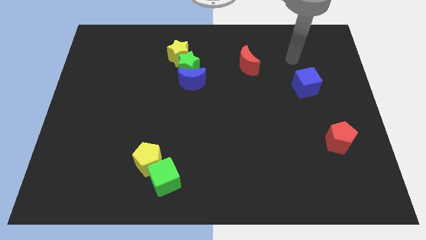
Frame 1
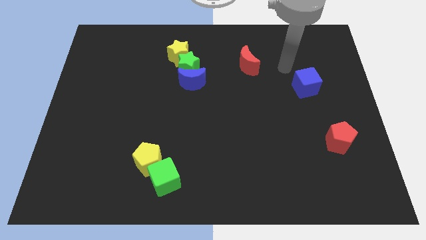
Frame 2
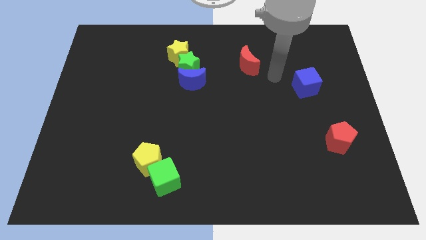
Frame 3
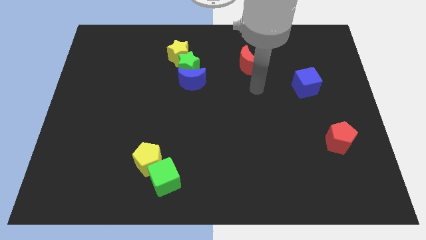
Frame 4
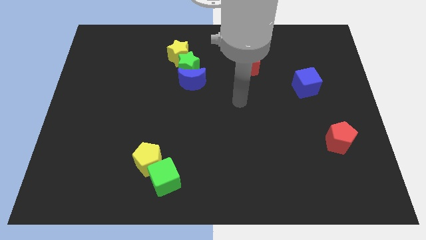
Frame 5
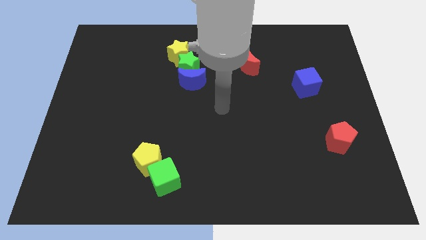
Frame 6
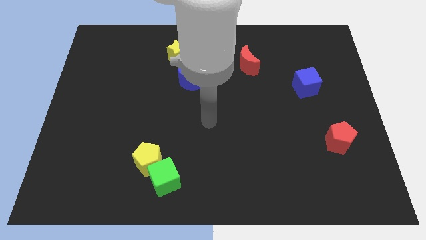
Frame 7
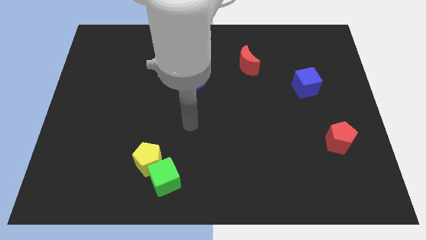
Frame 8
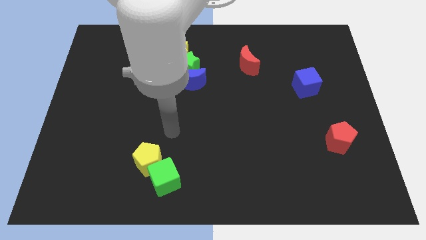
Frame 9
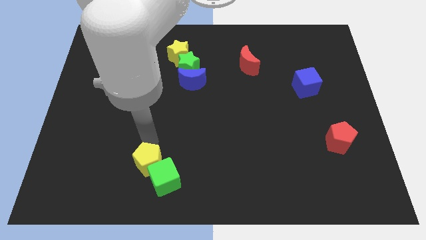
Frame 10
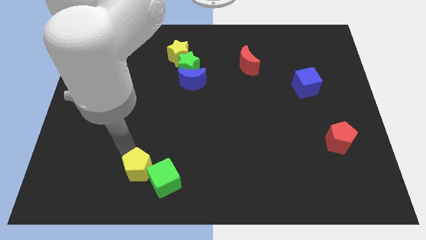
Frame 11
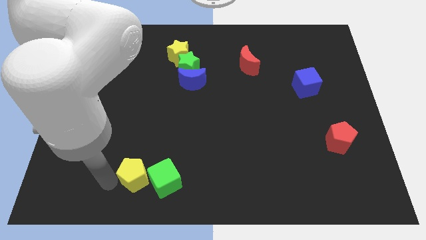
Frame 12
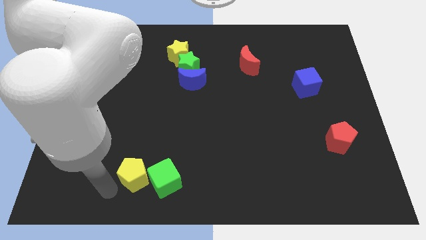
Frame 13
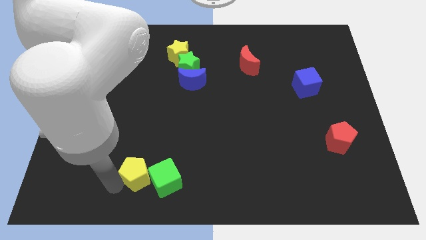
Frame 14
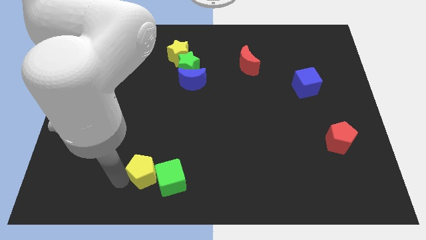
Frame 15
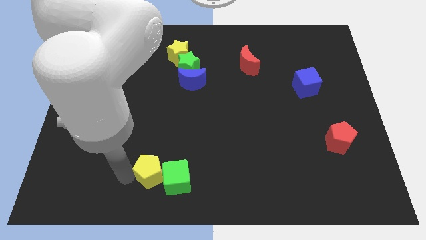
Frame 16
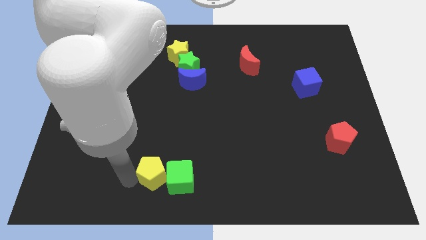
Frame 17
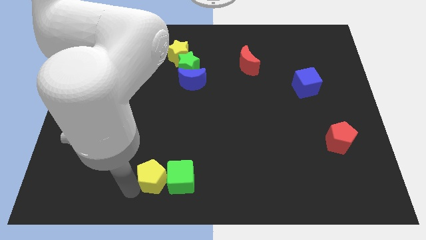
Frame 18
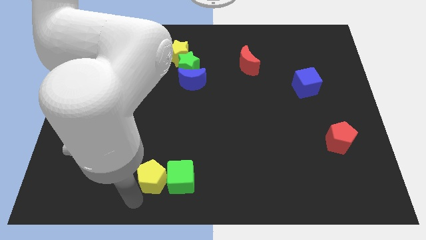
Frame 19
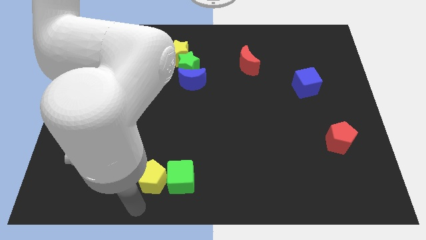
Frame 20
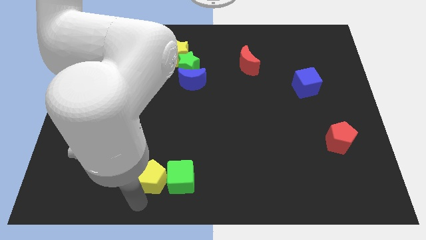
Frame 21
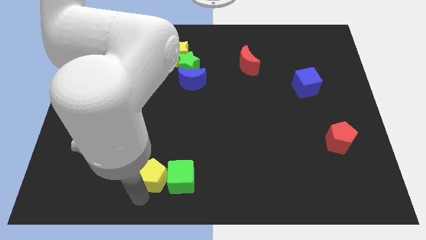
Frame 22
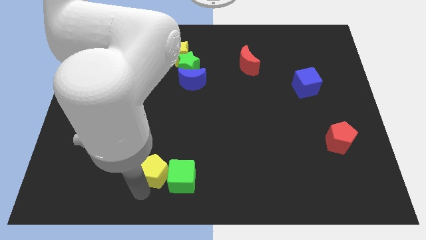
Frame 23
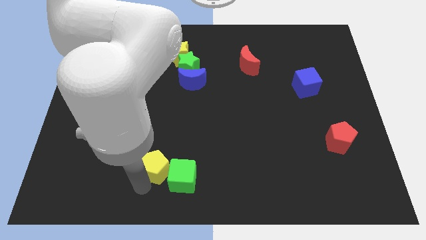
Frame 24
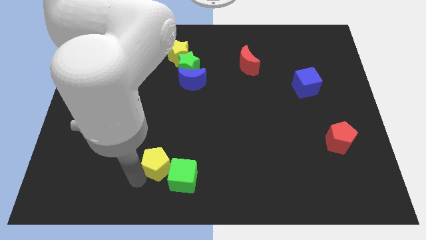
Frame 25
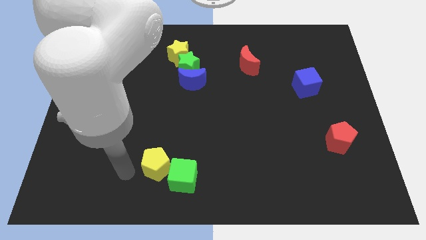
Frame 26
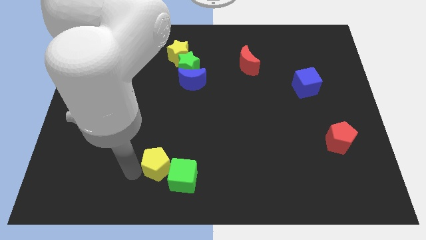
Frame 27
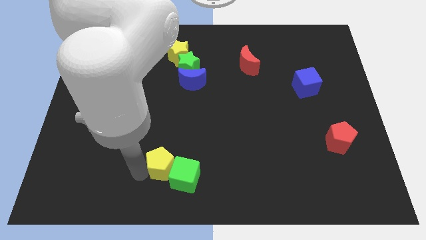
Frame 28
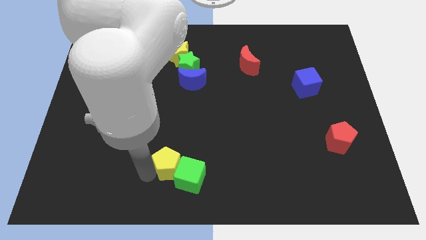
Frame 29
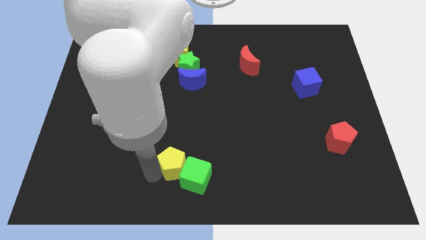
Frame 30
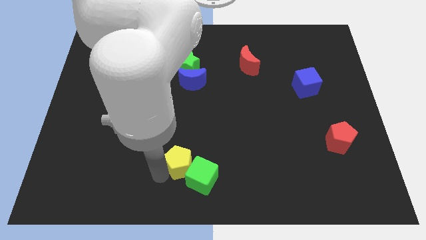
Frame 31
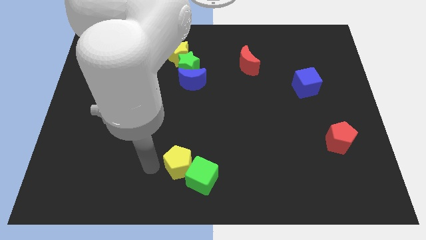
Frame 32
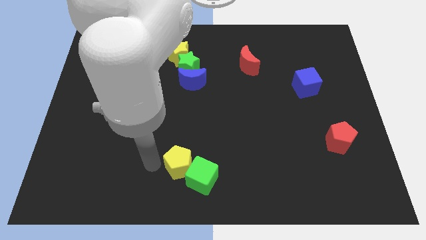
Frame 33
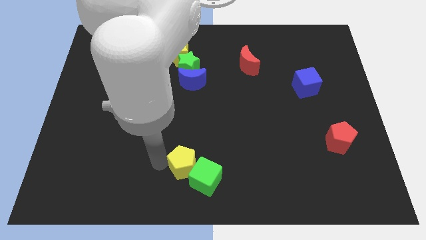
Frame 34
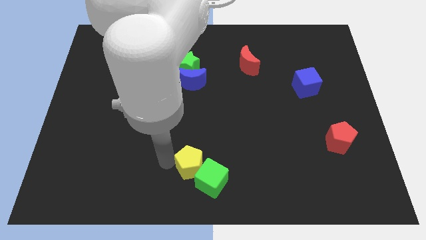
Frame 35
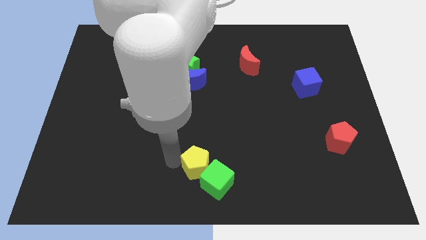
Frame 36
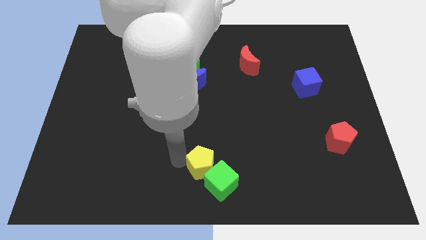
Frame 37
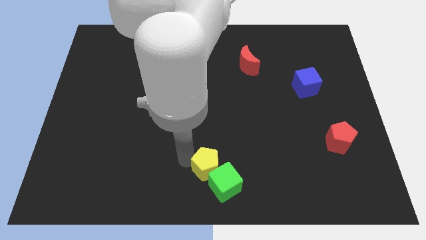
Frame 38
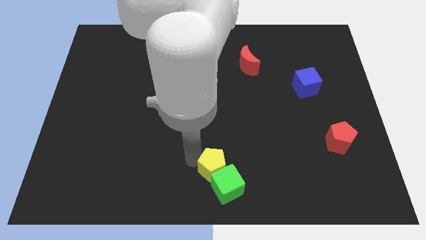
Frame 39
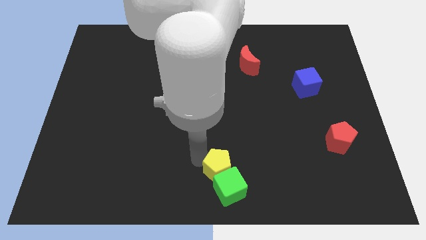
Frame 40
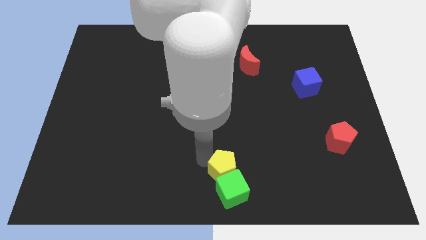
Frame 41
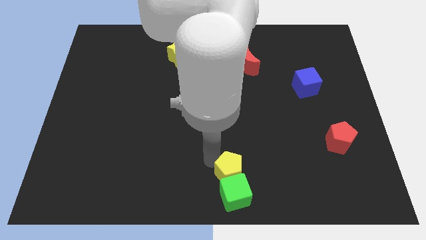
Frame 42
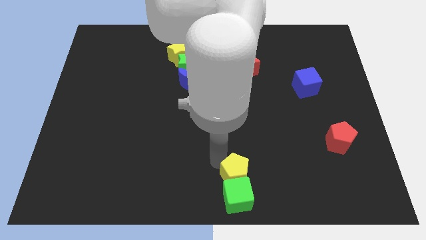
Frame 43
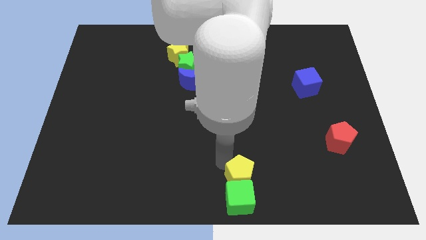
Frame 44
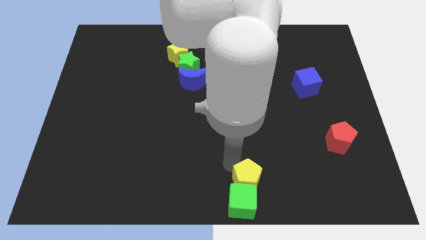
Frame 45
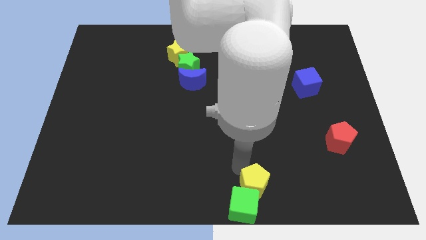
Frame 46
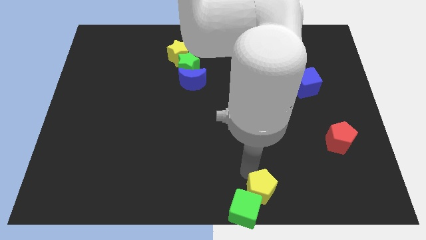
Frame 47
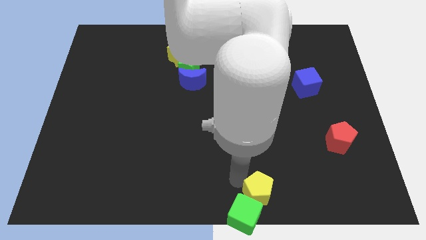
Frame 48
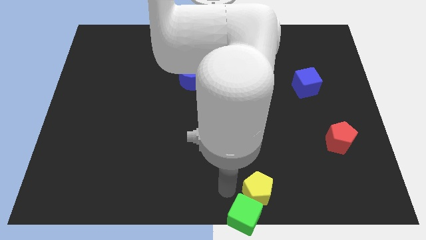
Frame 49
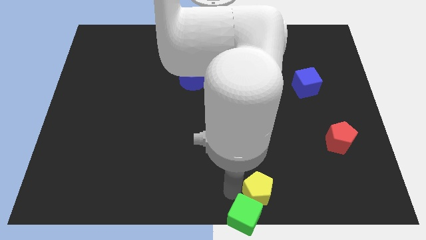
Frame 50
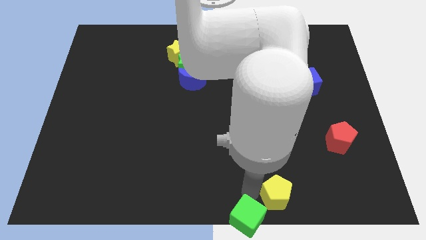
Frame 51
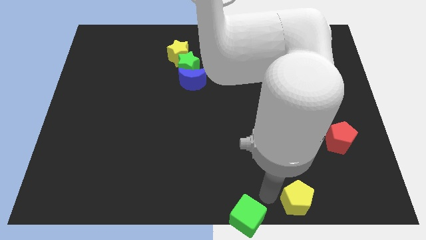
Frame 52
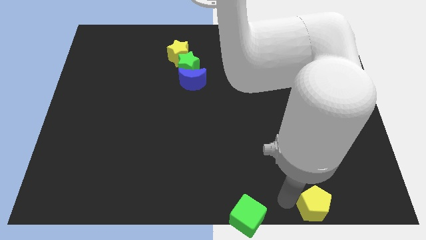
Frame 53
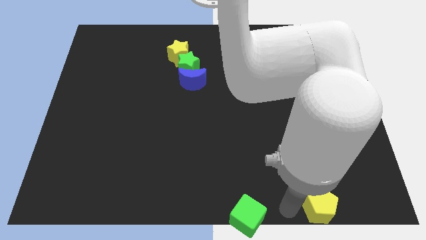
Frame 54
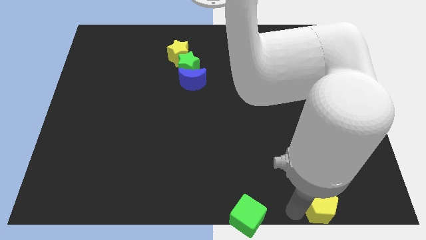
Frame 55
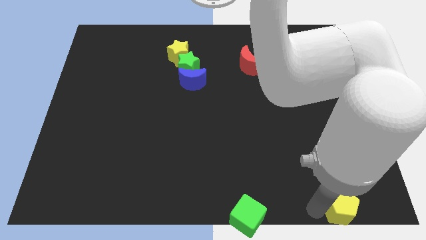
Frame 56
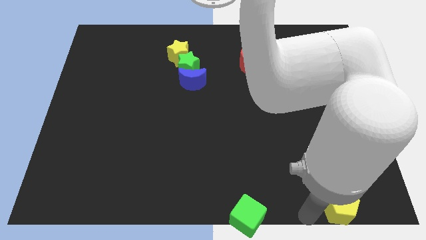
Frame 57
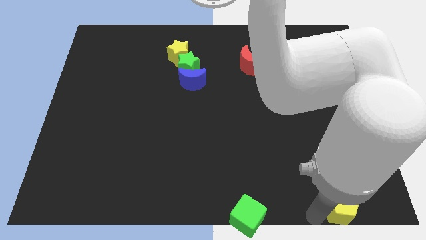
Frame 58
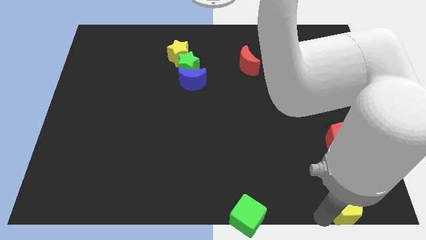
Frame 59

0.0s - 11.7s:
push the yellow pentagon to the bottom right corner
